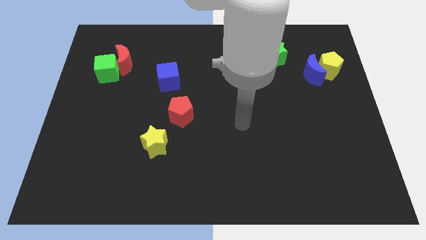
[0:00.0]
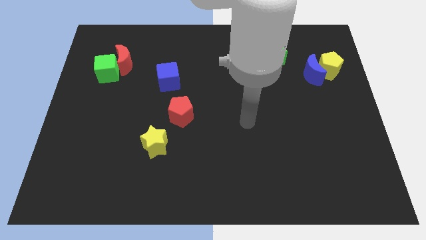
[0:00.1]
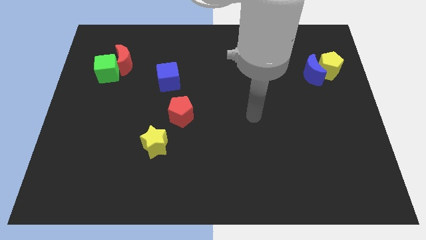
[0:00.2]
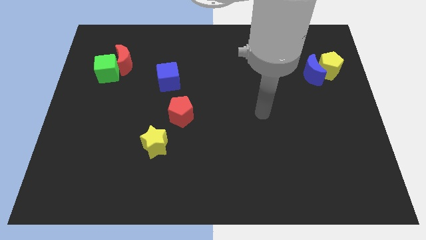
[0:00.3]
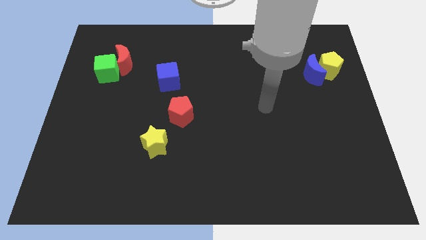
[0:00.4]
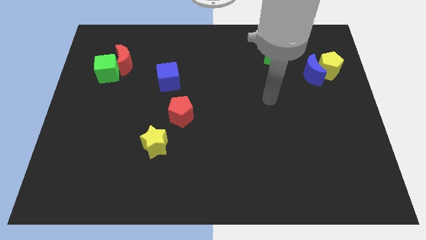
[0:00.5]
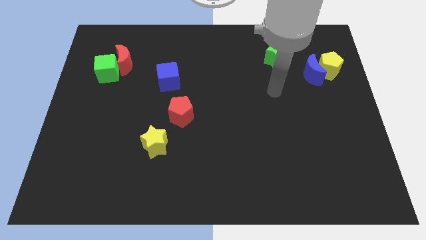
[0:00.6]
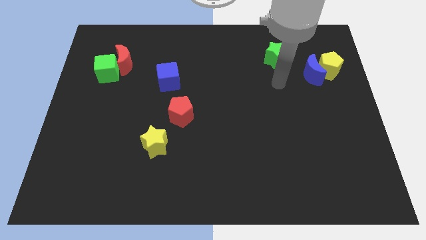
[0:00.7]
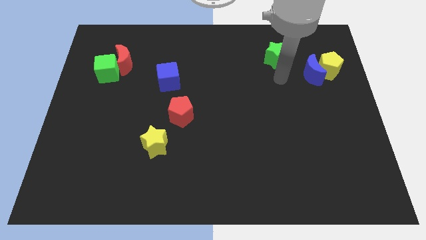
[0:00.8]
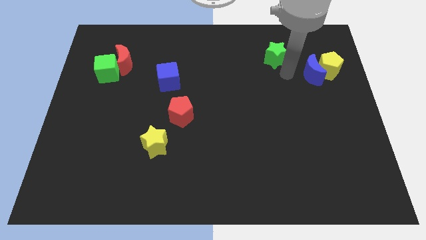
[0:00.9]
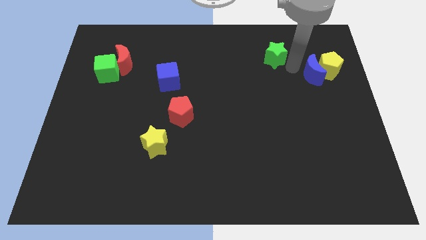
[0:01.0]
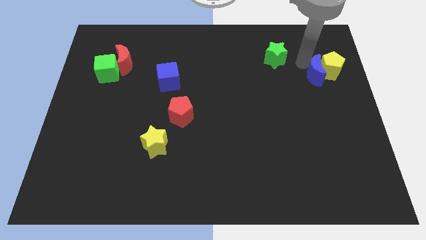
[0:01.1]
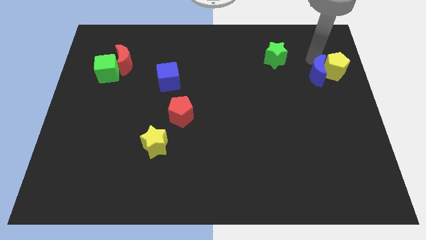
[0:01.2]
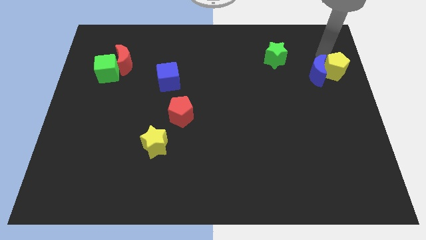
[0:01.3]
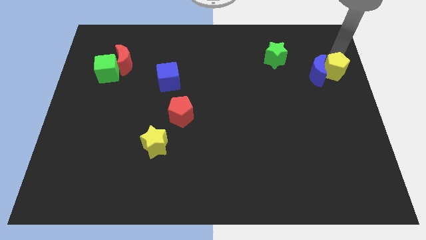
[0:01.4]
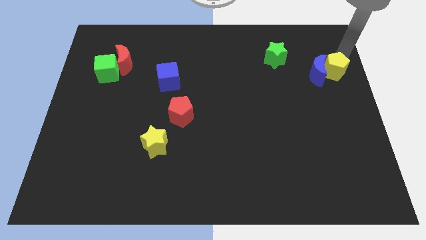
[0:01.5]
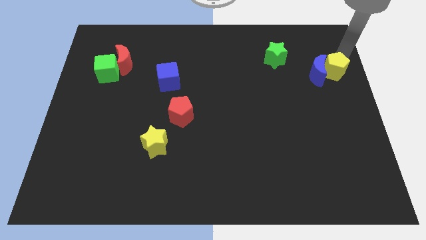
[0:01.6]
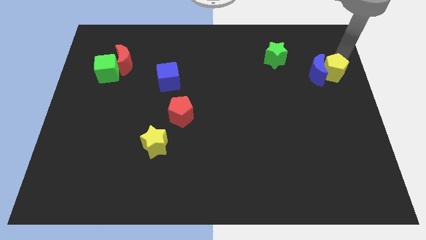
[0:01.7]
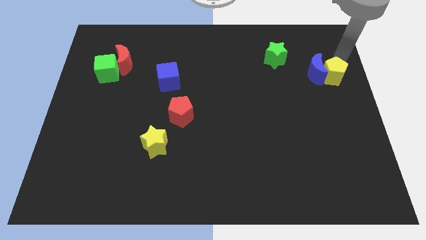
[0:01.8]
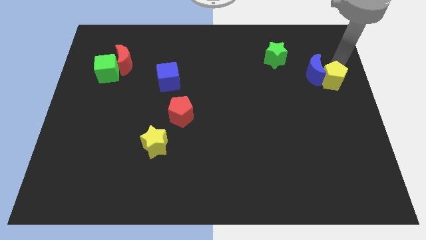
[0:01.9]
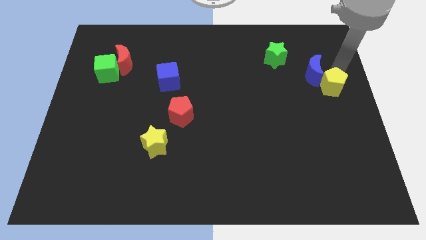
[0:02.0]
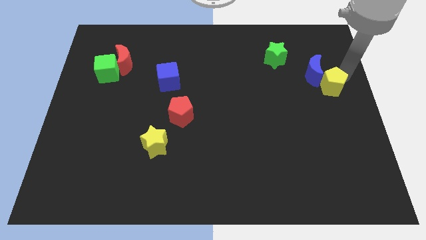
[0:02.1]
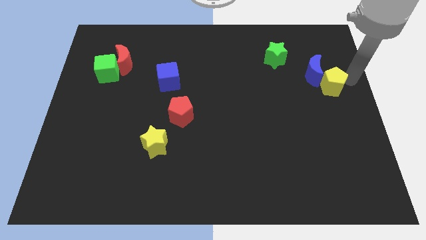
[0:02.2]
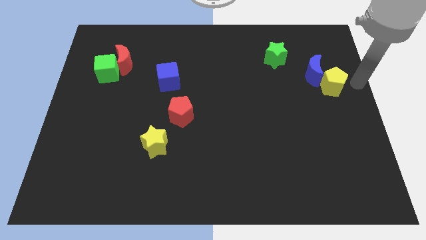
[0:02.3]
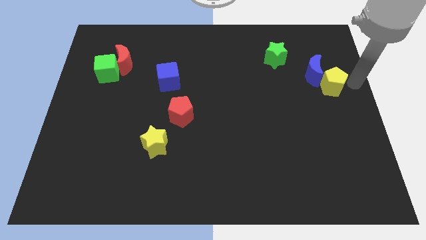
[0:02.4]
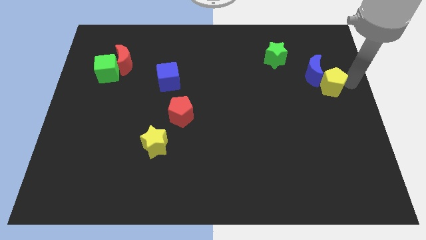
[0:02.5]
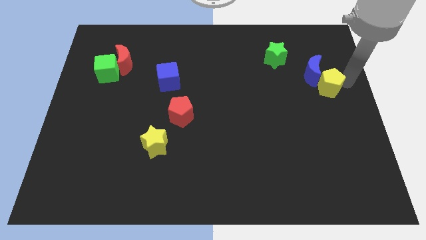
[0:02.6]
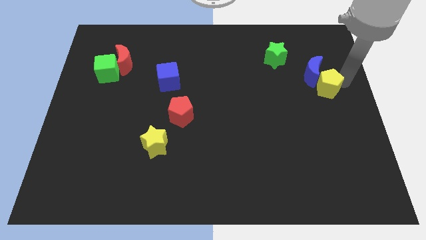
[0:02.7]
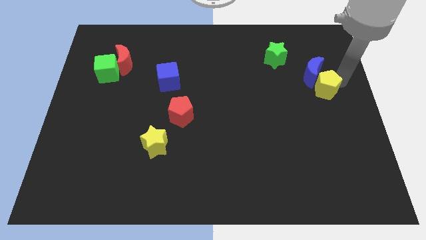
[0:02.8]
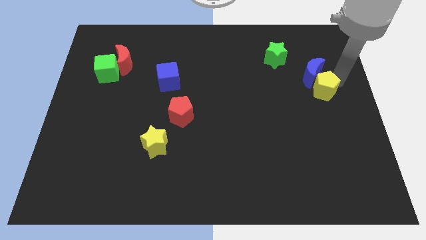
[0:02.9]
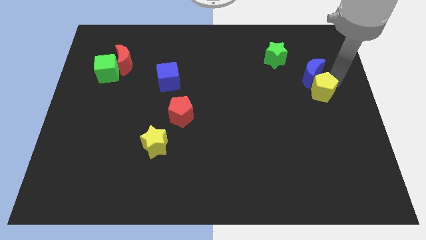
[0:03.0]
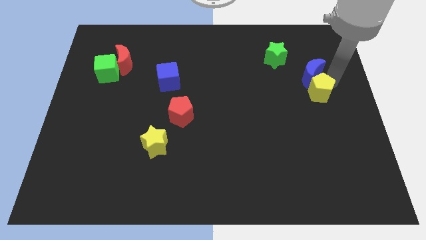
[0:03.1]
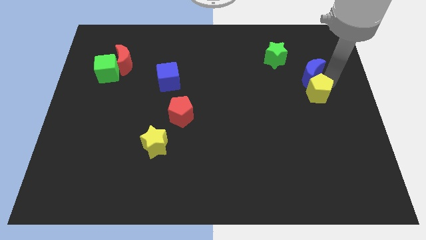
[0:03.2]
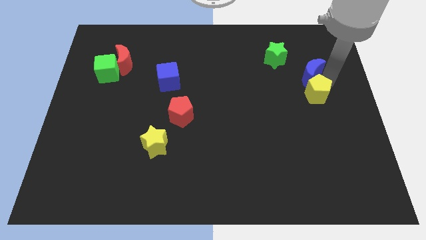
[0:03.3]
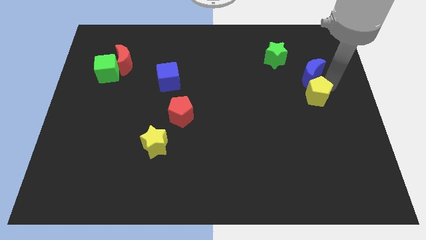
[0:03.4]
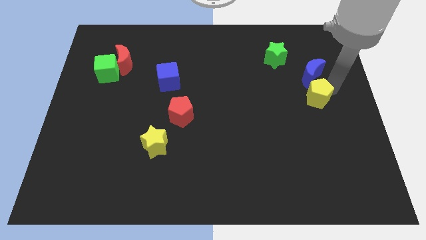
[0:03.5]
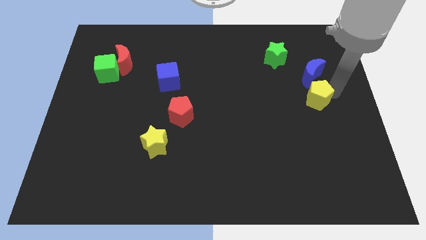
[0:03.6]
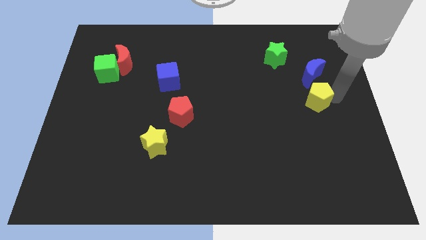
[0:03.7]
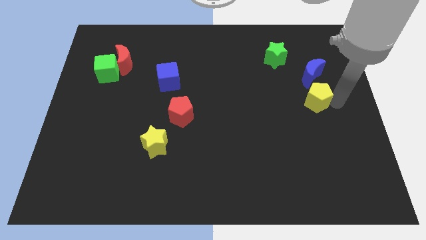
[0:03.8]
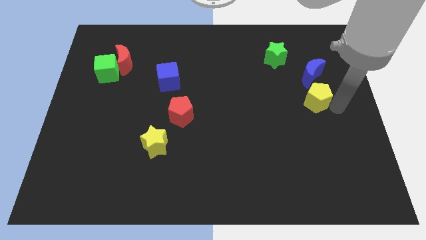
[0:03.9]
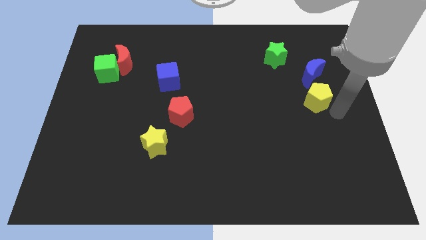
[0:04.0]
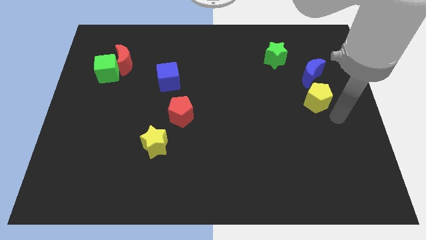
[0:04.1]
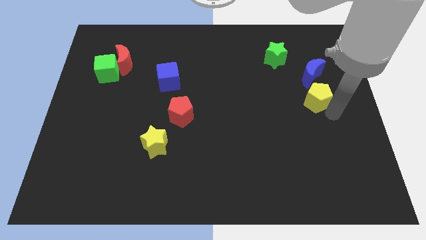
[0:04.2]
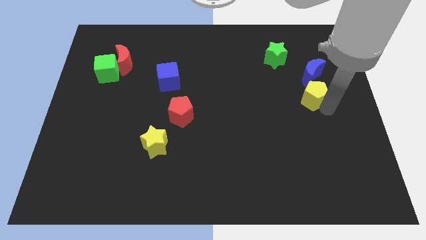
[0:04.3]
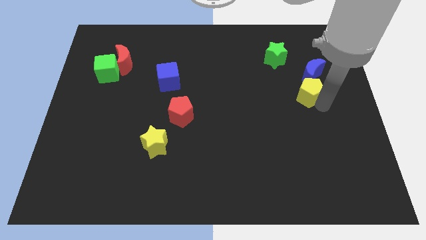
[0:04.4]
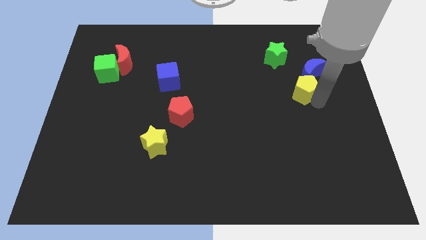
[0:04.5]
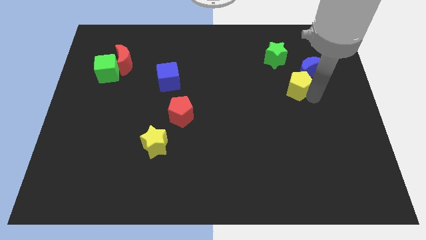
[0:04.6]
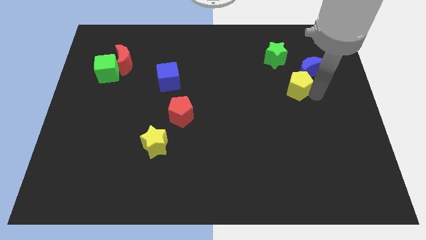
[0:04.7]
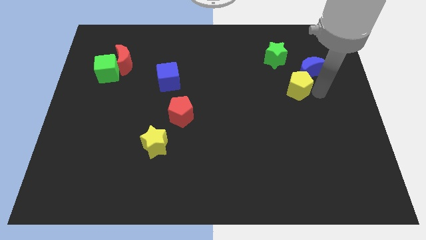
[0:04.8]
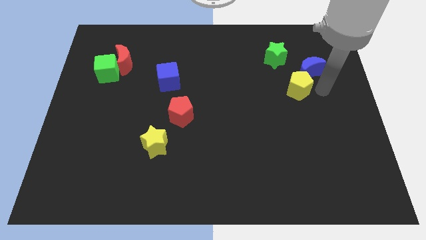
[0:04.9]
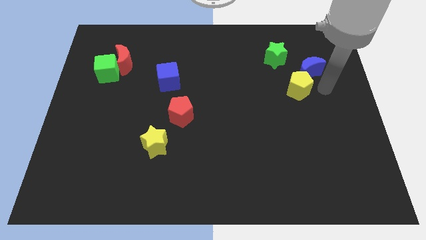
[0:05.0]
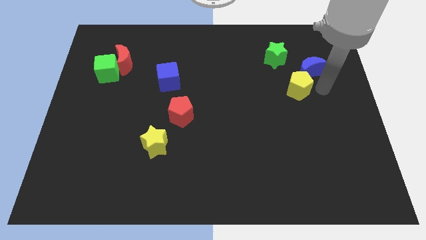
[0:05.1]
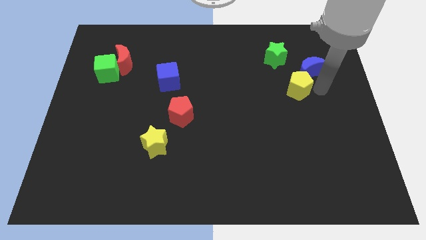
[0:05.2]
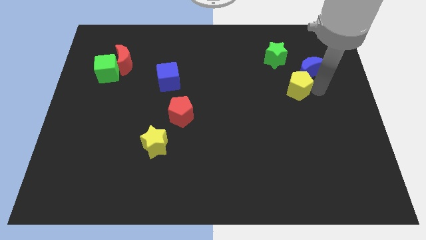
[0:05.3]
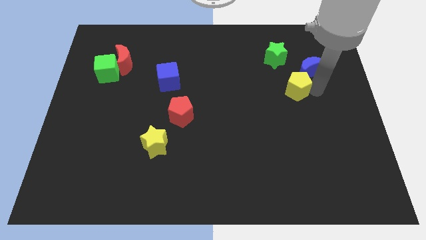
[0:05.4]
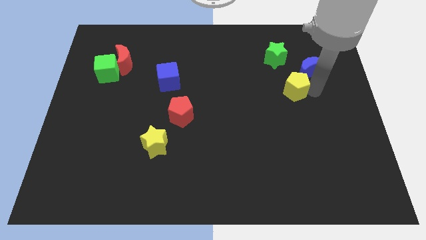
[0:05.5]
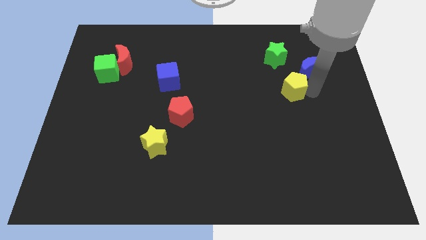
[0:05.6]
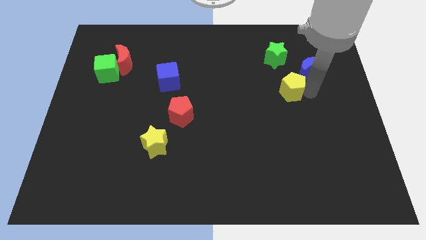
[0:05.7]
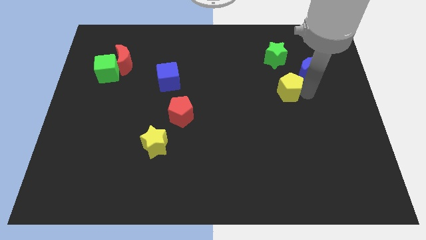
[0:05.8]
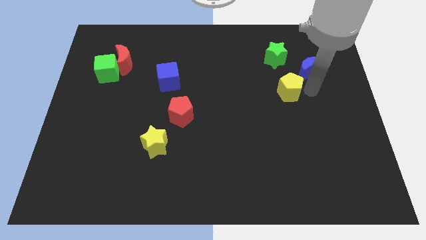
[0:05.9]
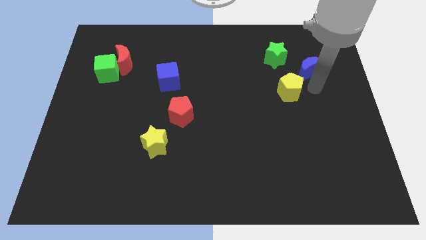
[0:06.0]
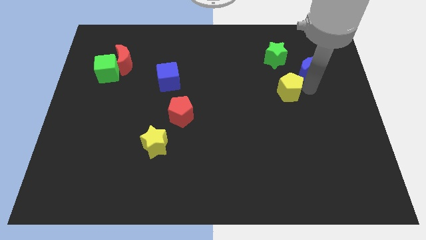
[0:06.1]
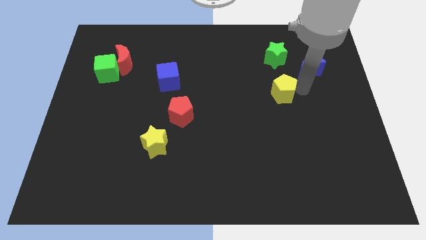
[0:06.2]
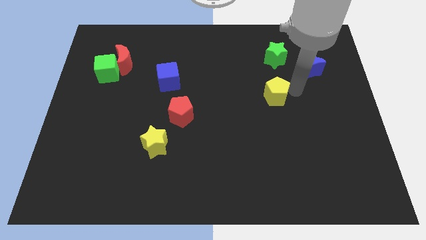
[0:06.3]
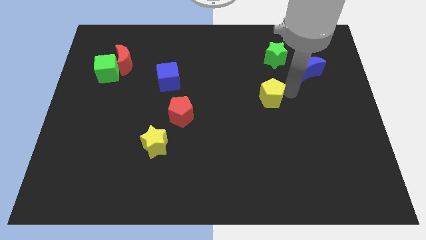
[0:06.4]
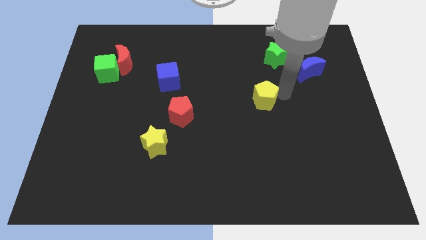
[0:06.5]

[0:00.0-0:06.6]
move the yellow pentagon to the middle

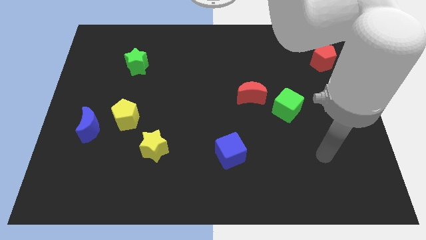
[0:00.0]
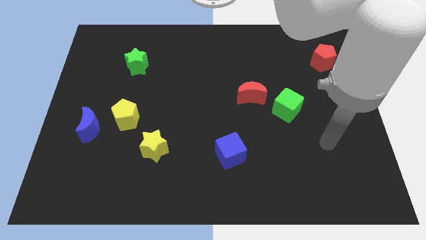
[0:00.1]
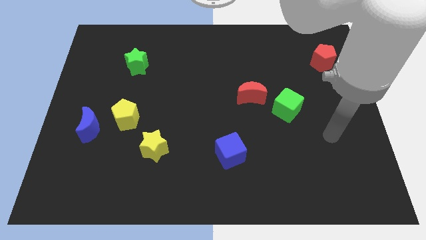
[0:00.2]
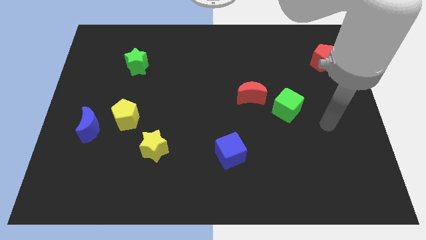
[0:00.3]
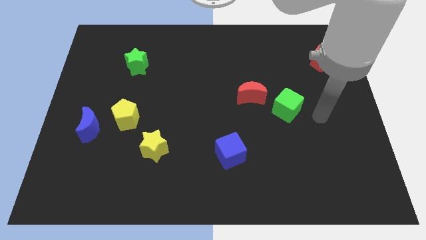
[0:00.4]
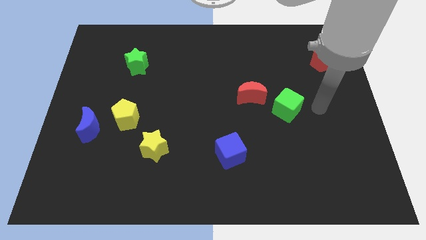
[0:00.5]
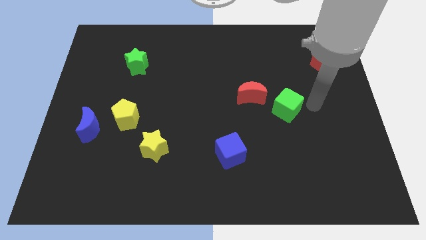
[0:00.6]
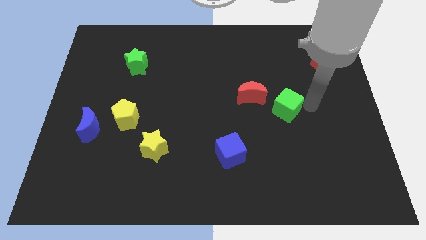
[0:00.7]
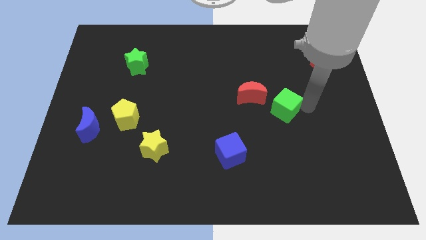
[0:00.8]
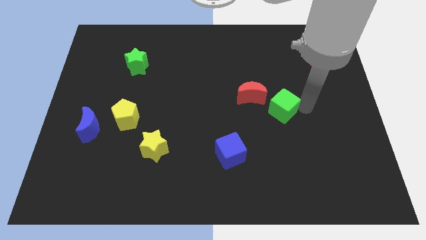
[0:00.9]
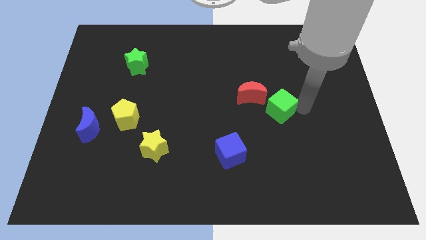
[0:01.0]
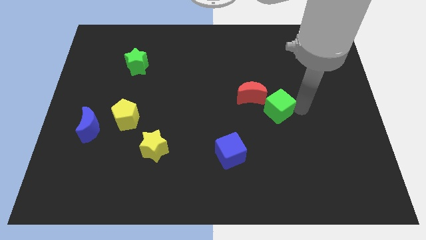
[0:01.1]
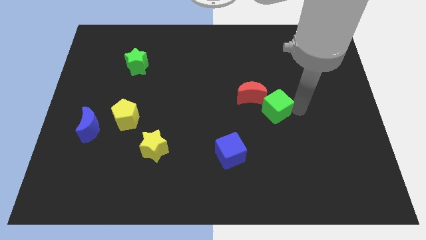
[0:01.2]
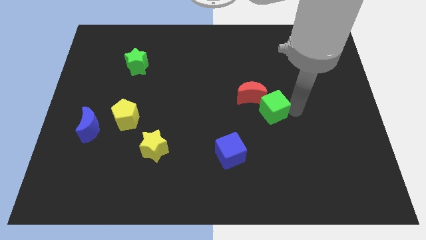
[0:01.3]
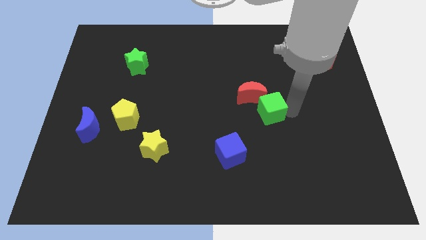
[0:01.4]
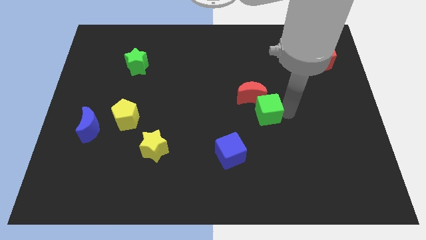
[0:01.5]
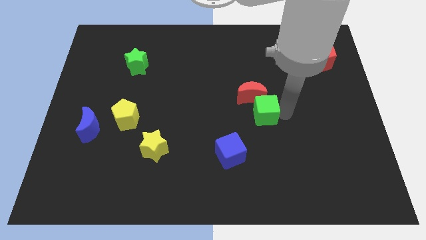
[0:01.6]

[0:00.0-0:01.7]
push the green cube to the middle
